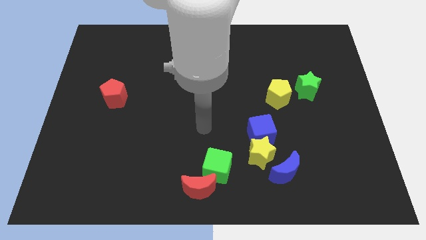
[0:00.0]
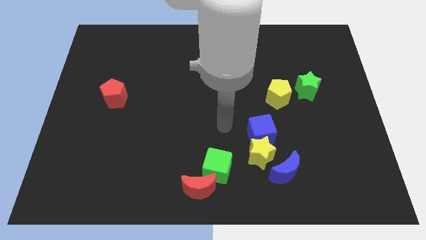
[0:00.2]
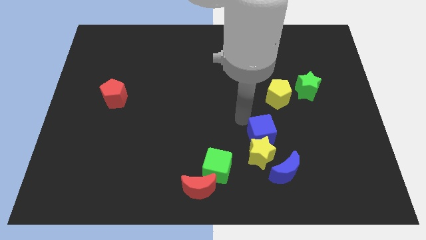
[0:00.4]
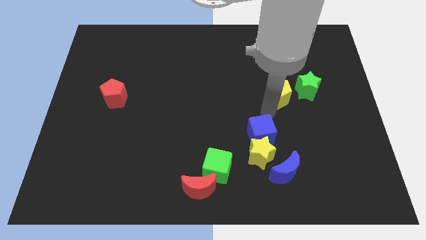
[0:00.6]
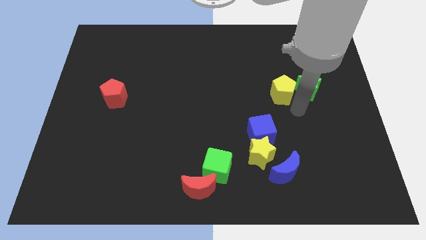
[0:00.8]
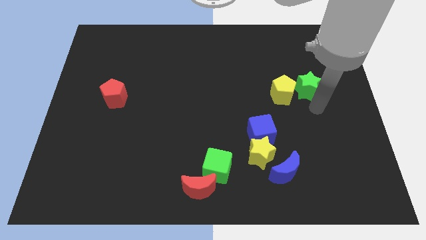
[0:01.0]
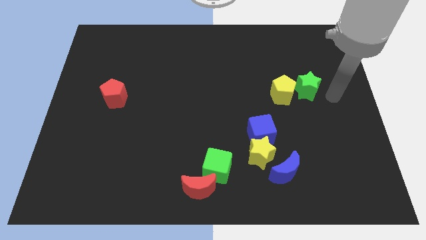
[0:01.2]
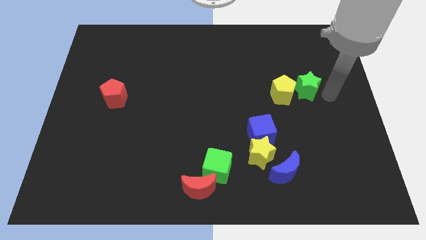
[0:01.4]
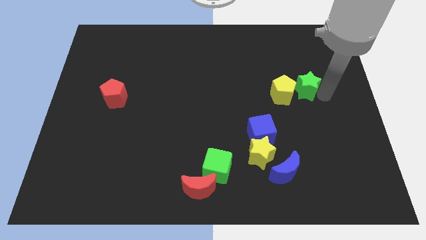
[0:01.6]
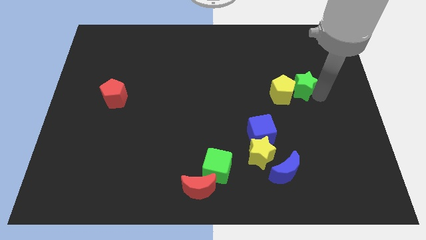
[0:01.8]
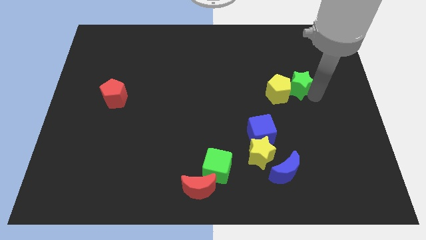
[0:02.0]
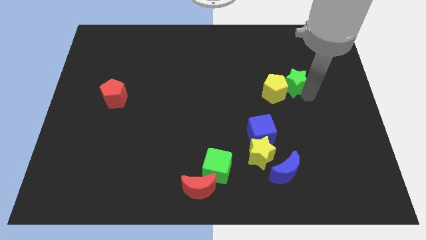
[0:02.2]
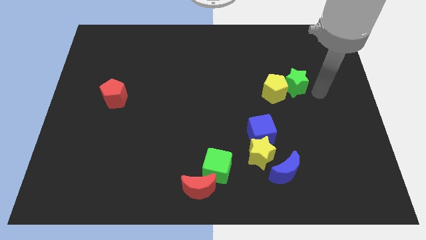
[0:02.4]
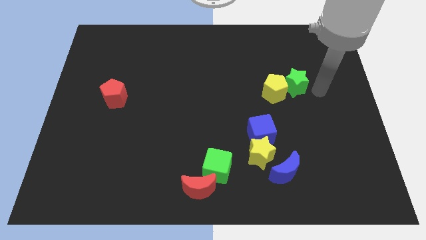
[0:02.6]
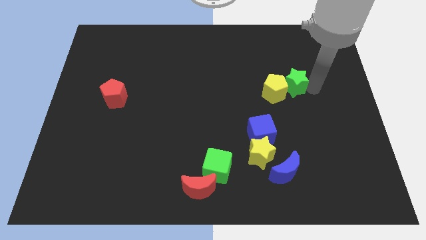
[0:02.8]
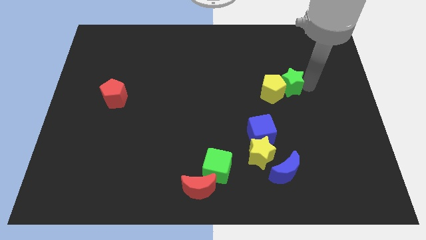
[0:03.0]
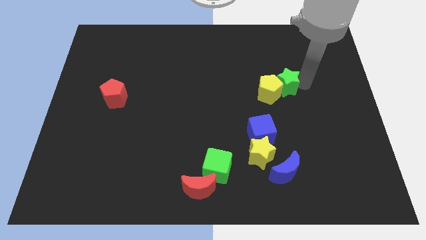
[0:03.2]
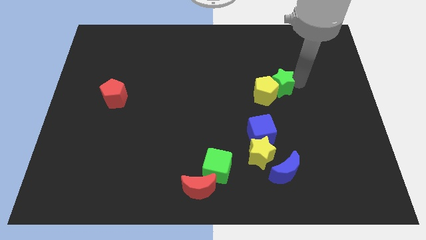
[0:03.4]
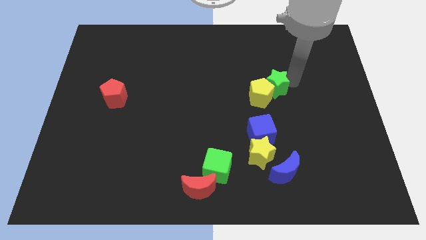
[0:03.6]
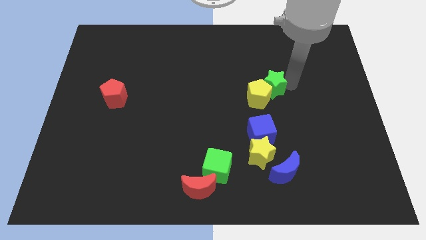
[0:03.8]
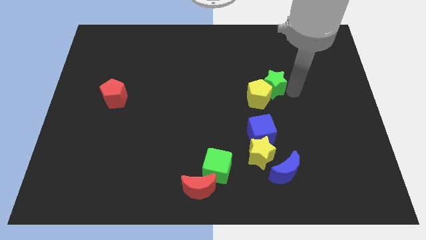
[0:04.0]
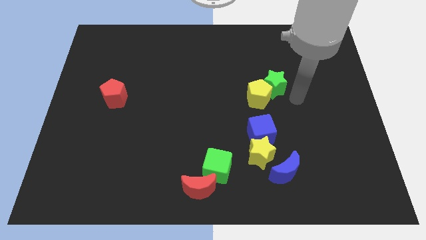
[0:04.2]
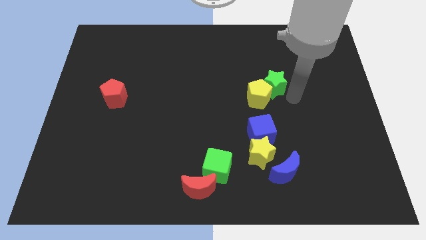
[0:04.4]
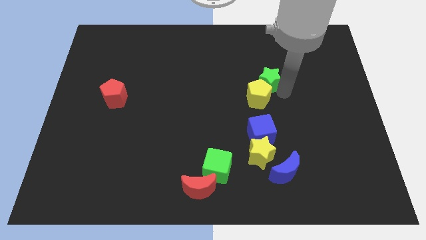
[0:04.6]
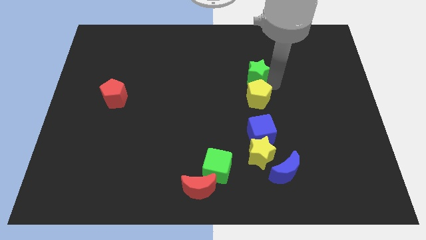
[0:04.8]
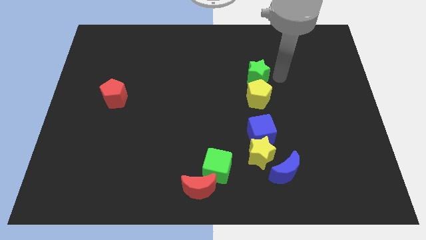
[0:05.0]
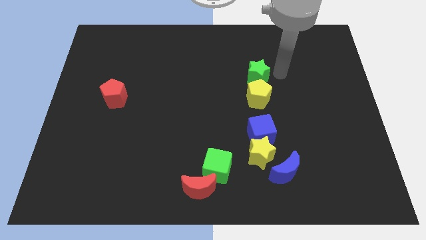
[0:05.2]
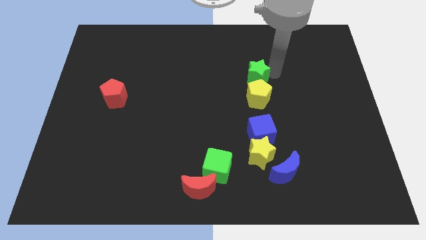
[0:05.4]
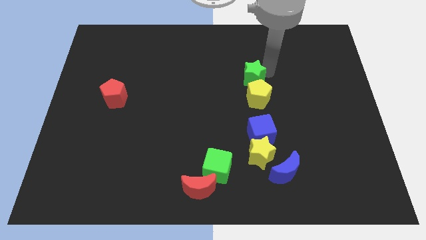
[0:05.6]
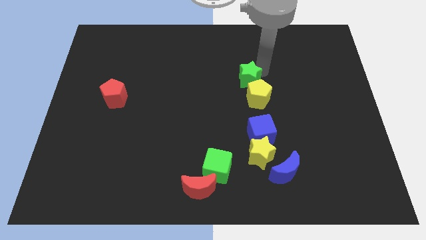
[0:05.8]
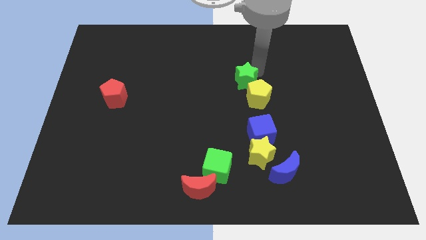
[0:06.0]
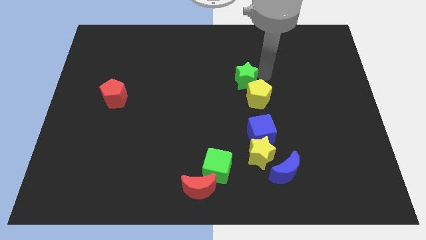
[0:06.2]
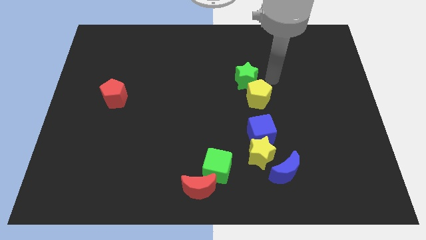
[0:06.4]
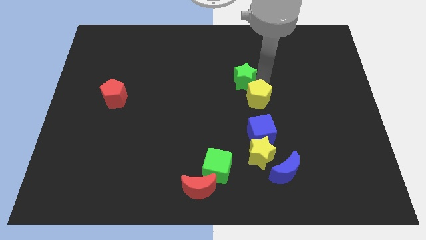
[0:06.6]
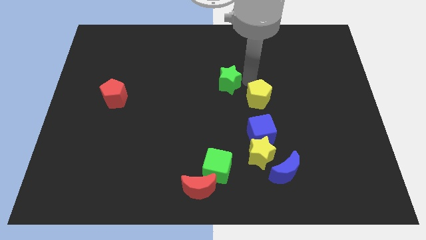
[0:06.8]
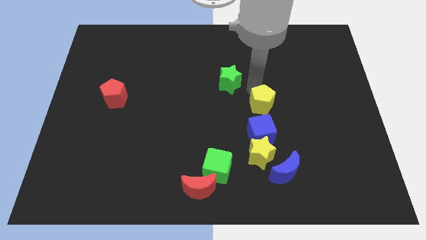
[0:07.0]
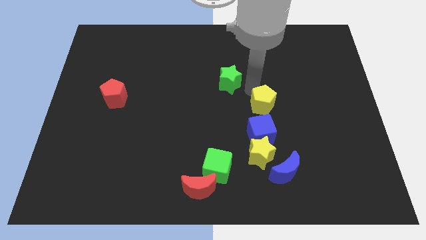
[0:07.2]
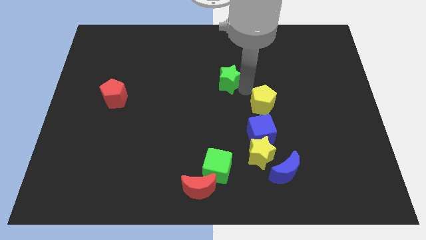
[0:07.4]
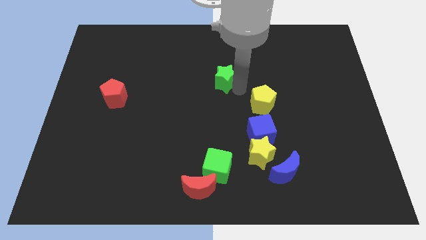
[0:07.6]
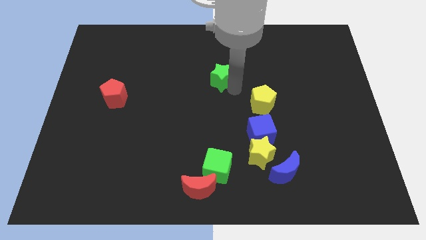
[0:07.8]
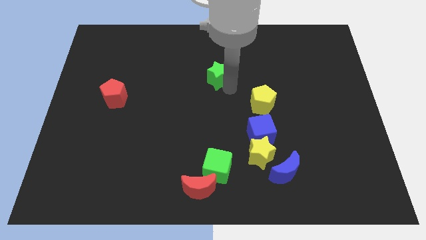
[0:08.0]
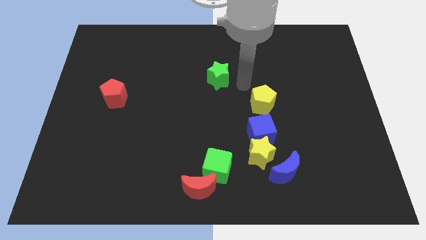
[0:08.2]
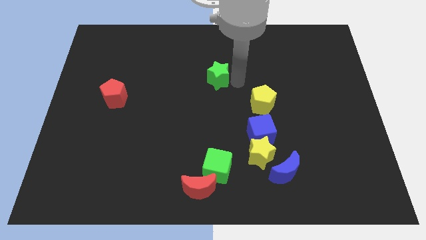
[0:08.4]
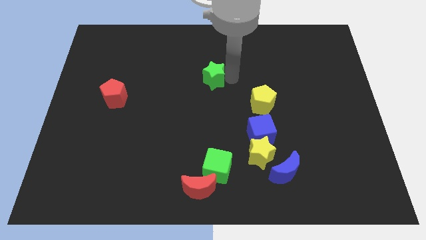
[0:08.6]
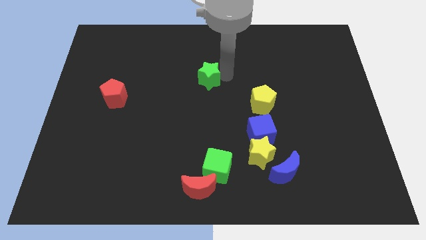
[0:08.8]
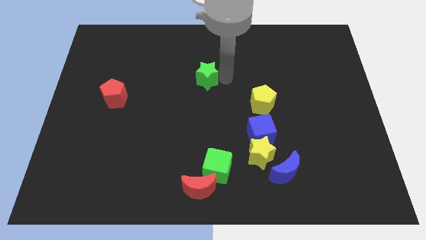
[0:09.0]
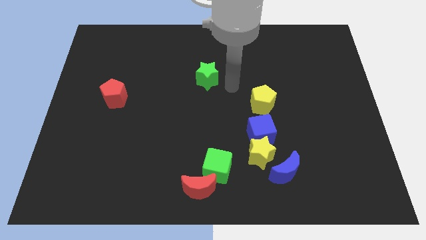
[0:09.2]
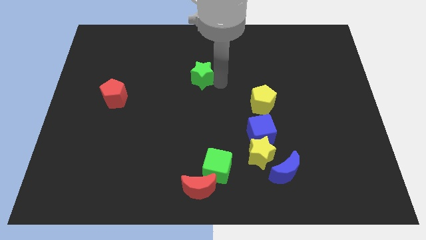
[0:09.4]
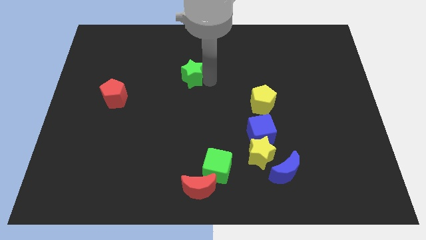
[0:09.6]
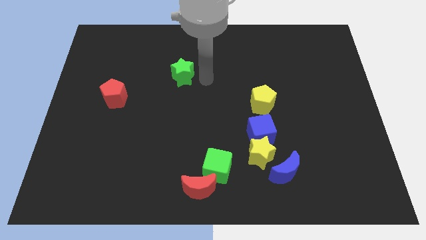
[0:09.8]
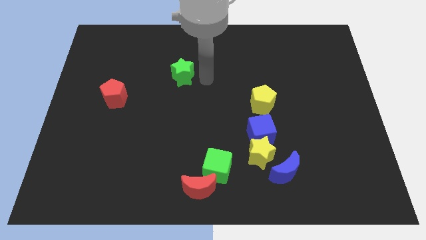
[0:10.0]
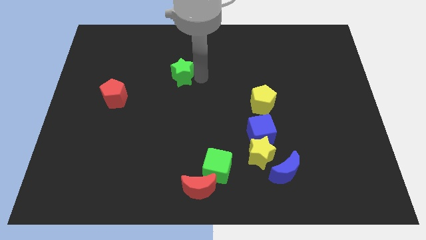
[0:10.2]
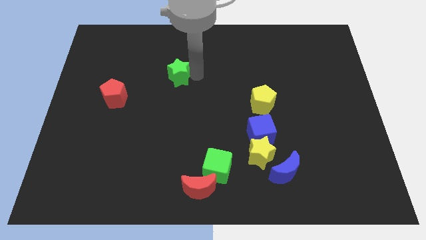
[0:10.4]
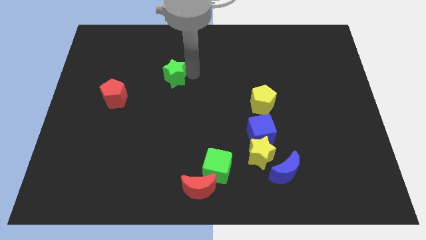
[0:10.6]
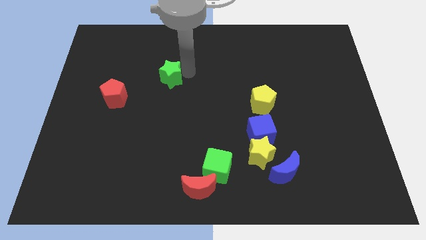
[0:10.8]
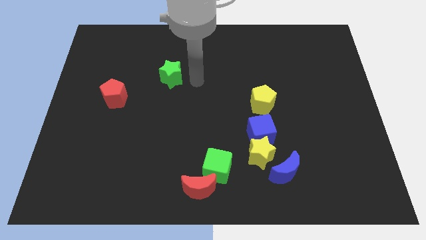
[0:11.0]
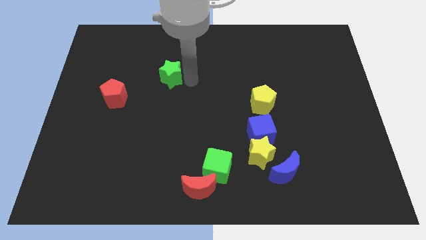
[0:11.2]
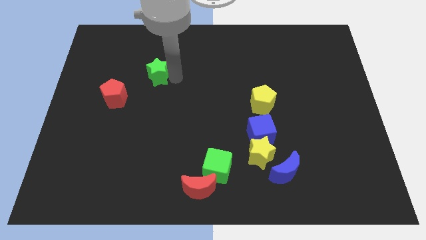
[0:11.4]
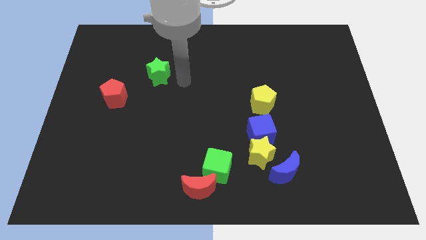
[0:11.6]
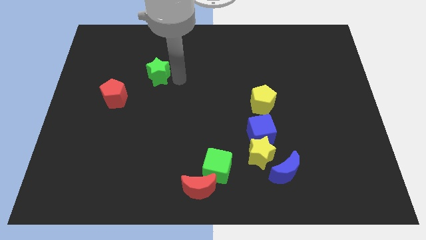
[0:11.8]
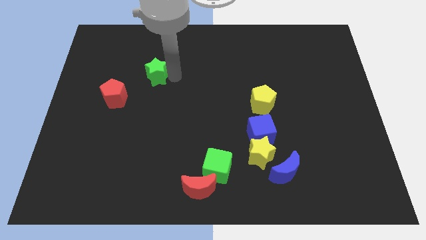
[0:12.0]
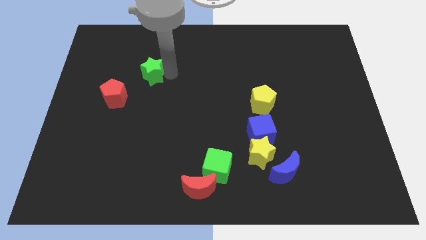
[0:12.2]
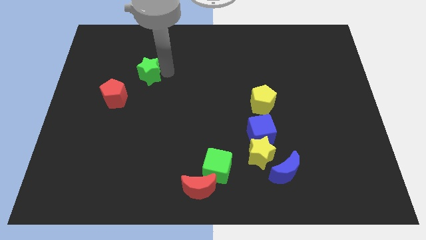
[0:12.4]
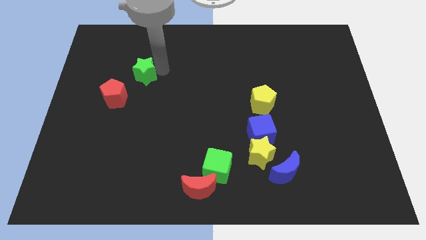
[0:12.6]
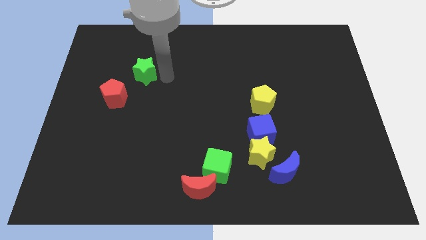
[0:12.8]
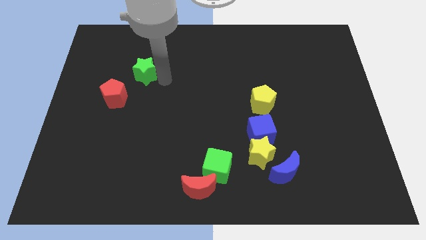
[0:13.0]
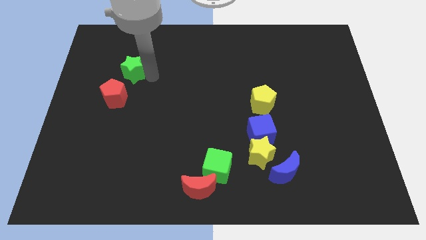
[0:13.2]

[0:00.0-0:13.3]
push the green star to the top of the red pentagon
